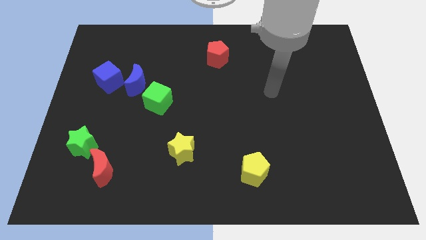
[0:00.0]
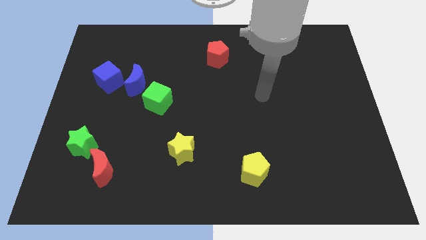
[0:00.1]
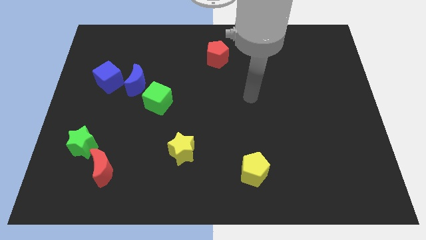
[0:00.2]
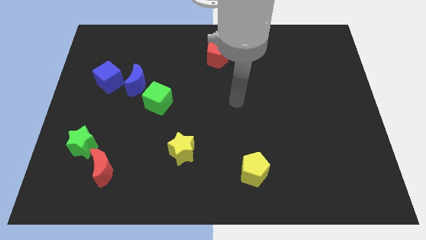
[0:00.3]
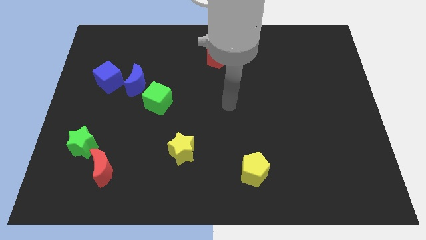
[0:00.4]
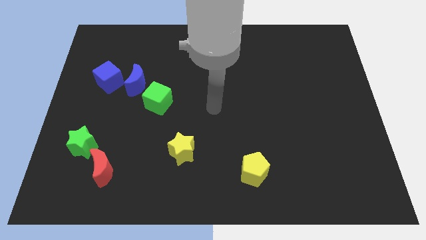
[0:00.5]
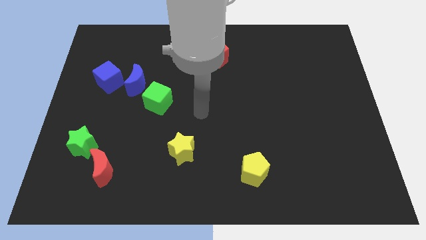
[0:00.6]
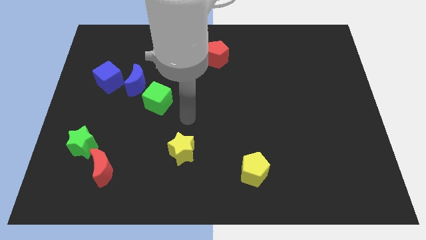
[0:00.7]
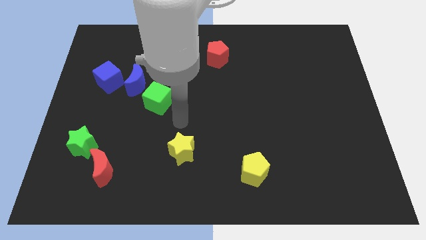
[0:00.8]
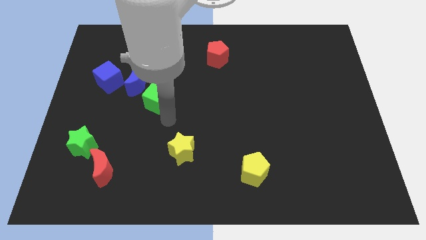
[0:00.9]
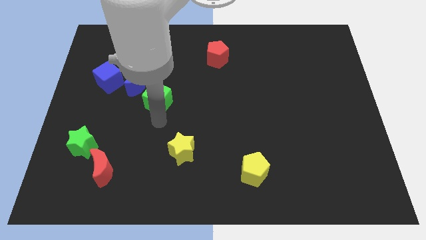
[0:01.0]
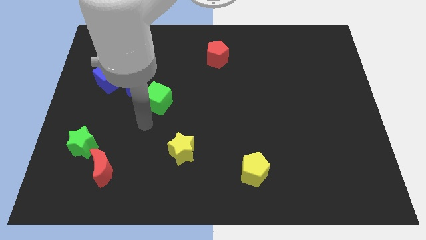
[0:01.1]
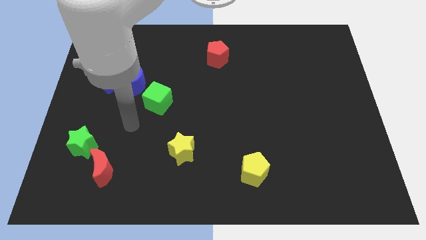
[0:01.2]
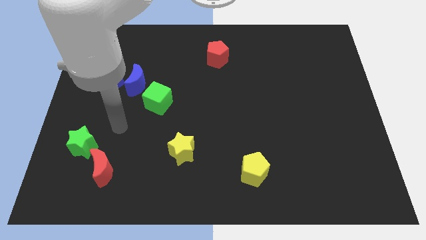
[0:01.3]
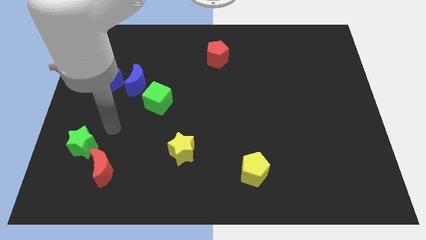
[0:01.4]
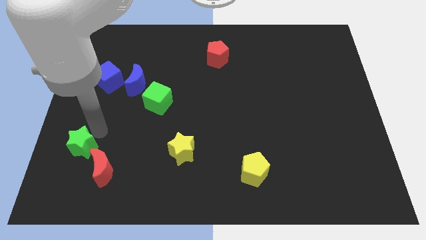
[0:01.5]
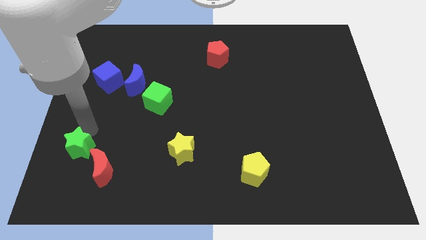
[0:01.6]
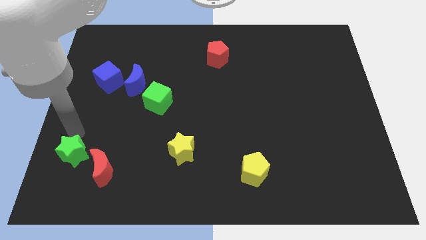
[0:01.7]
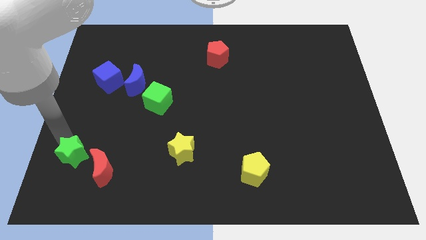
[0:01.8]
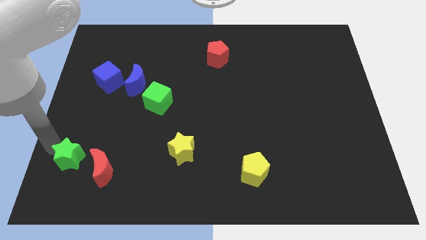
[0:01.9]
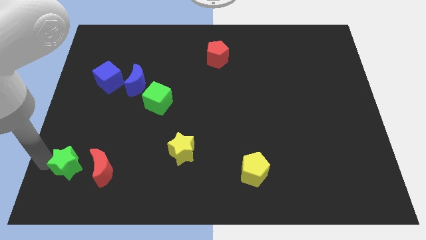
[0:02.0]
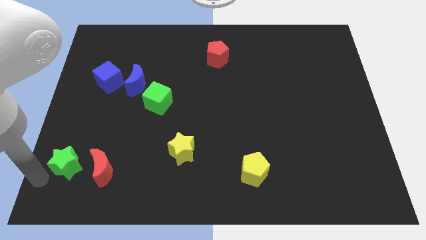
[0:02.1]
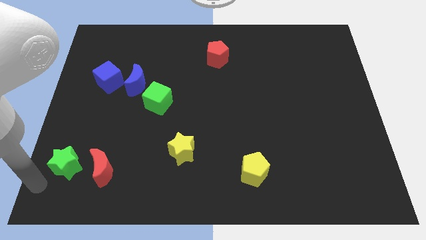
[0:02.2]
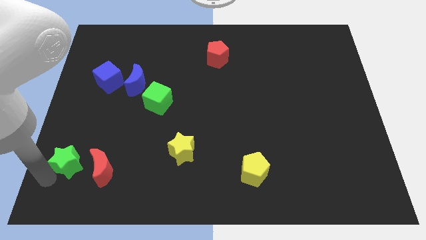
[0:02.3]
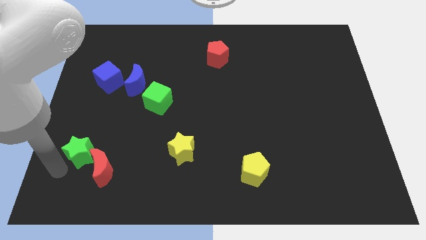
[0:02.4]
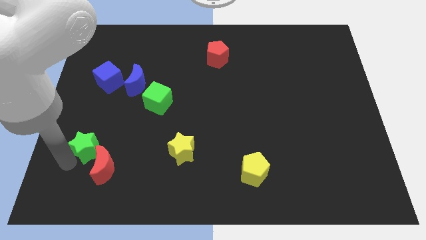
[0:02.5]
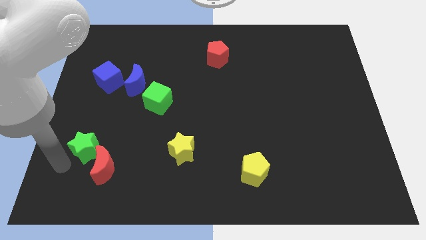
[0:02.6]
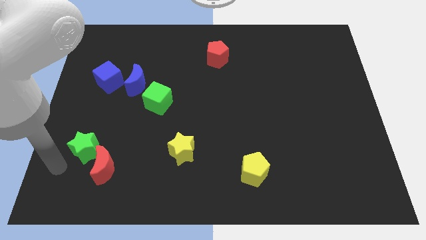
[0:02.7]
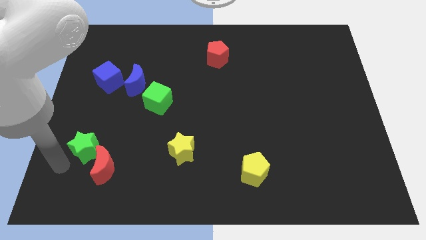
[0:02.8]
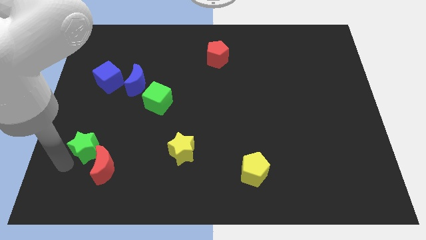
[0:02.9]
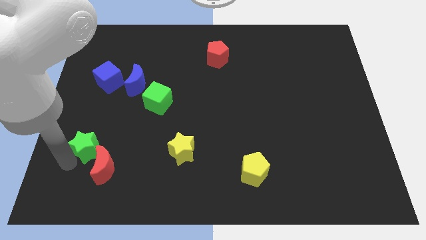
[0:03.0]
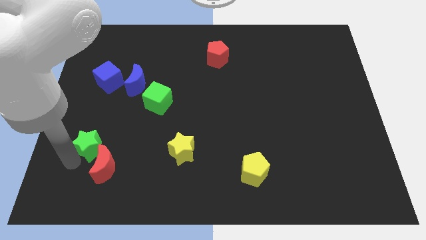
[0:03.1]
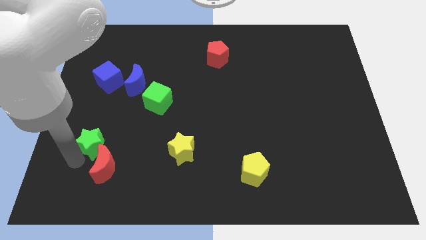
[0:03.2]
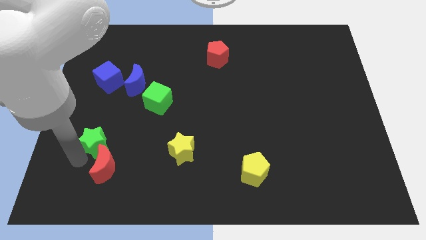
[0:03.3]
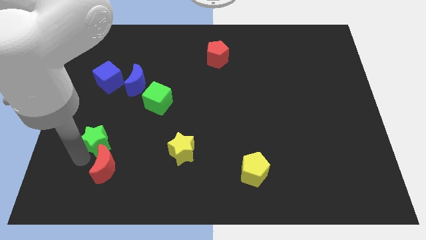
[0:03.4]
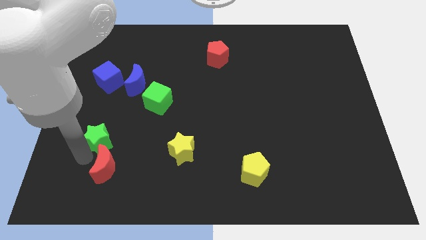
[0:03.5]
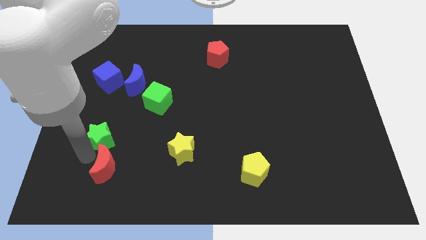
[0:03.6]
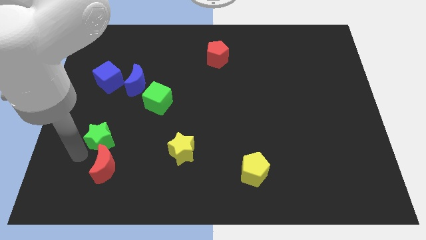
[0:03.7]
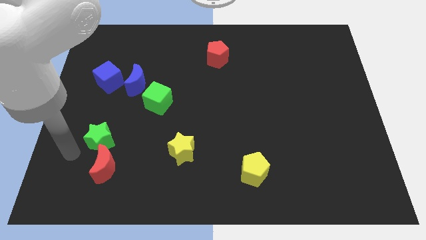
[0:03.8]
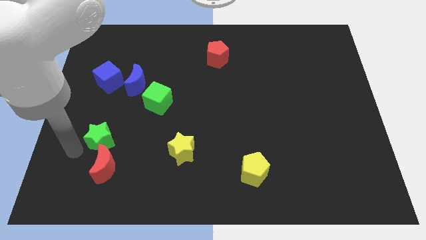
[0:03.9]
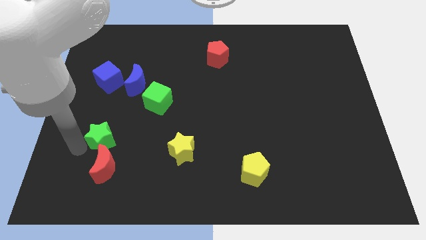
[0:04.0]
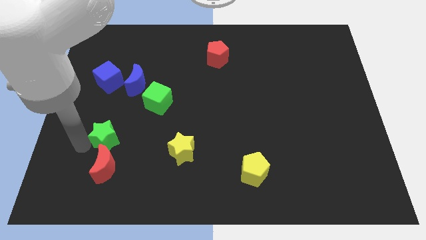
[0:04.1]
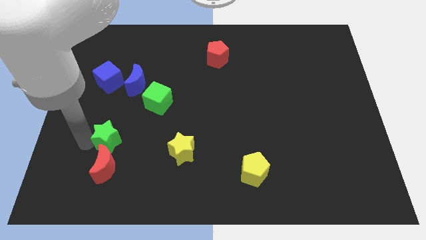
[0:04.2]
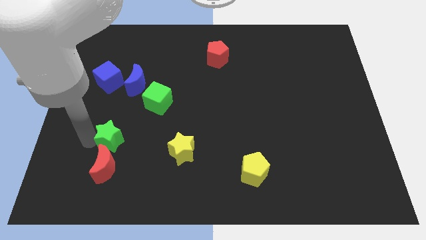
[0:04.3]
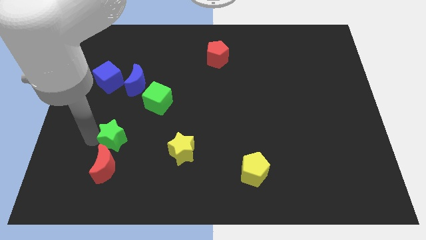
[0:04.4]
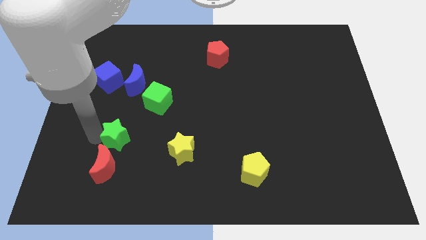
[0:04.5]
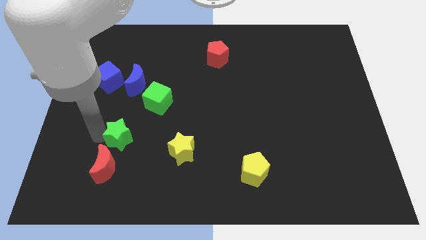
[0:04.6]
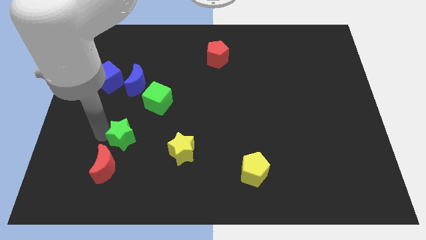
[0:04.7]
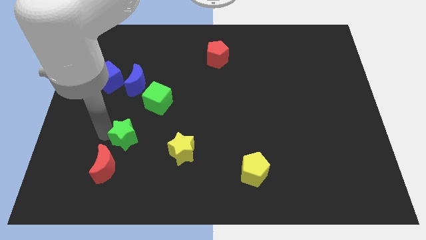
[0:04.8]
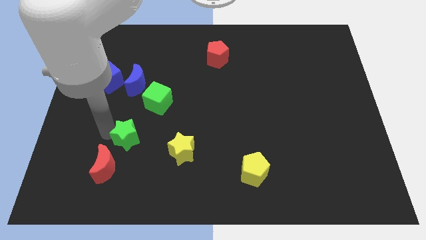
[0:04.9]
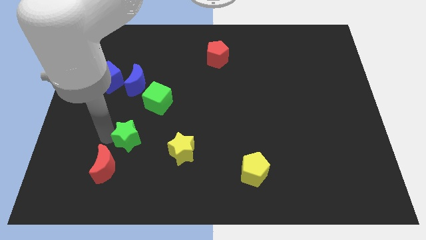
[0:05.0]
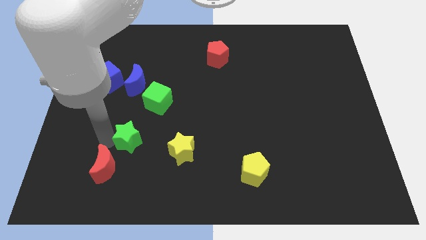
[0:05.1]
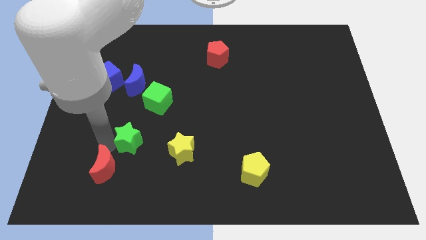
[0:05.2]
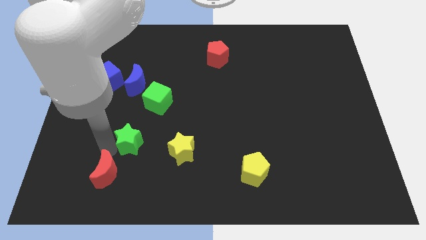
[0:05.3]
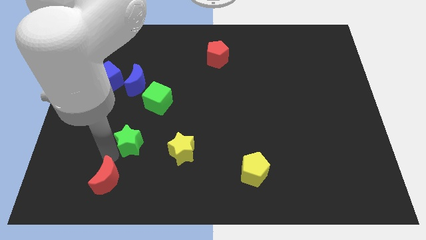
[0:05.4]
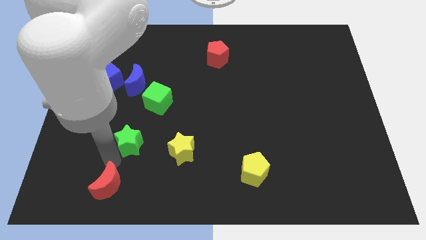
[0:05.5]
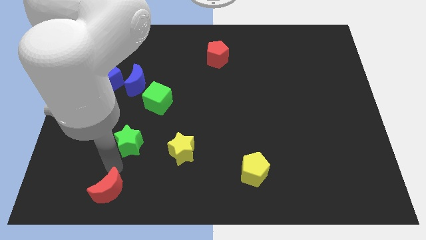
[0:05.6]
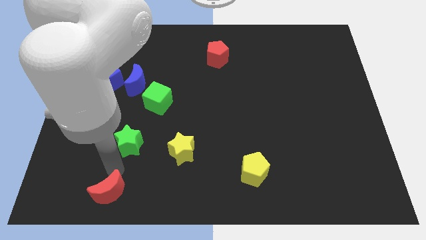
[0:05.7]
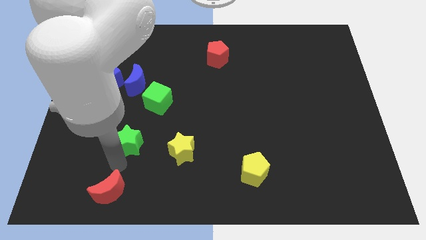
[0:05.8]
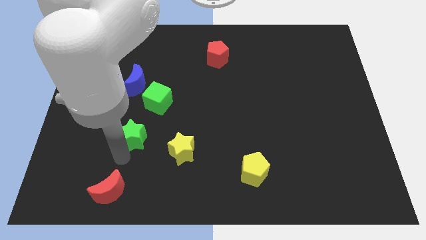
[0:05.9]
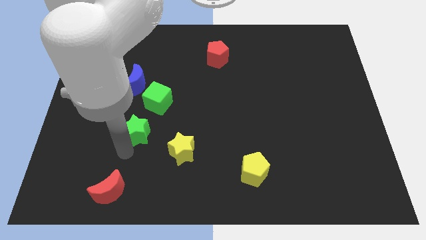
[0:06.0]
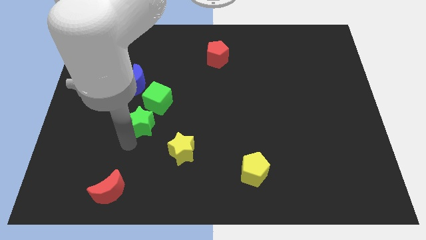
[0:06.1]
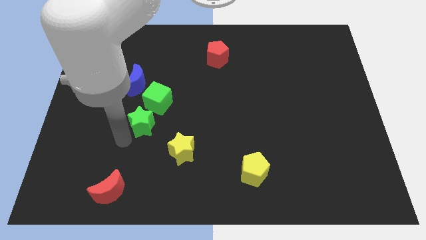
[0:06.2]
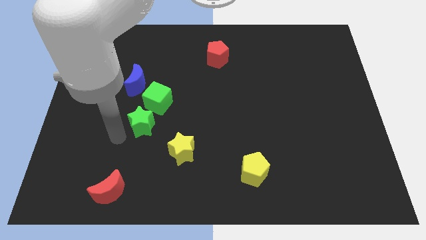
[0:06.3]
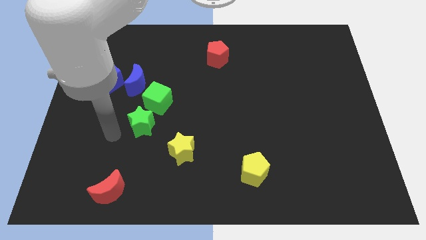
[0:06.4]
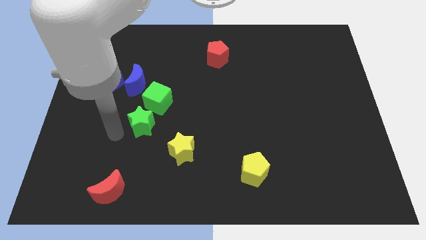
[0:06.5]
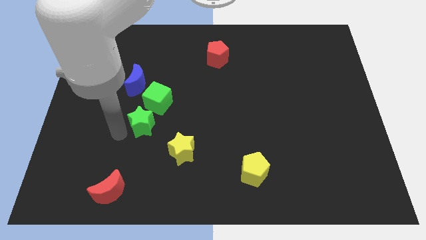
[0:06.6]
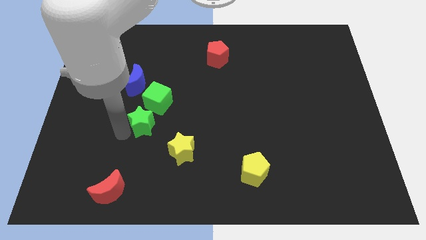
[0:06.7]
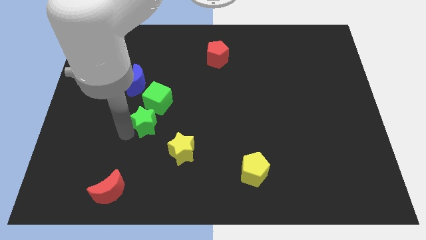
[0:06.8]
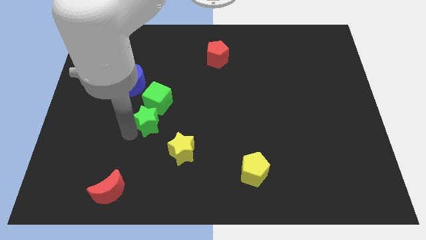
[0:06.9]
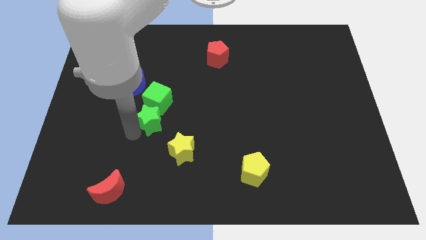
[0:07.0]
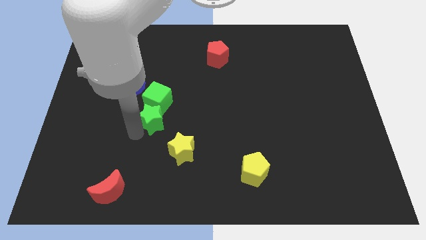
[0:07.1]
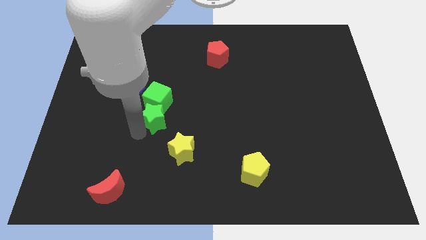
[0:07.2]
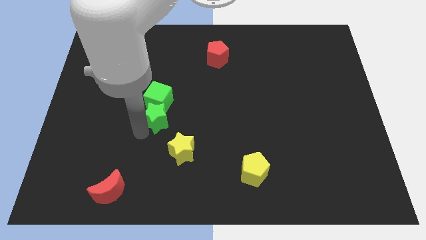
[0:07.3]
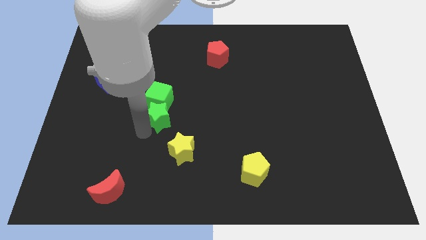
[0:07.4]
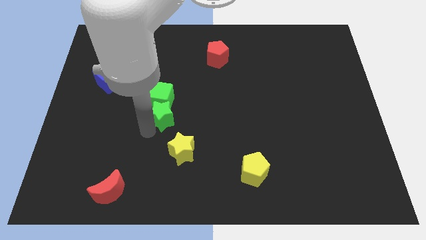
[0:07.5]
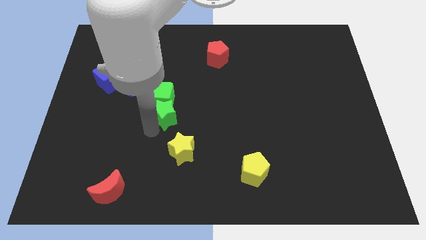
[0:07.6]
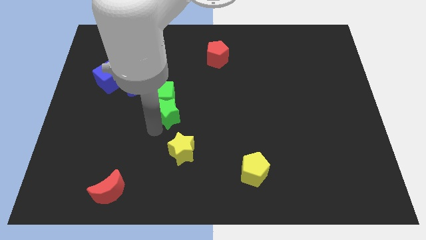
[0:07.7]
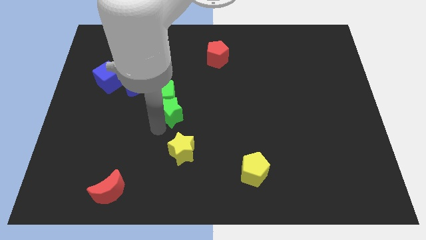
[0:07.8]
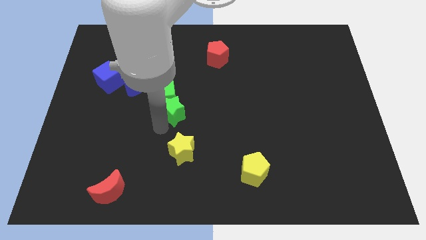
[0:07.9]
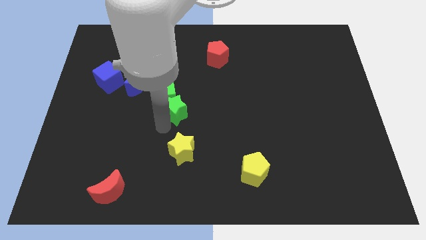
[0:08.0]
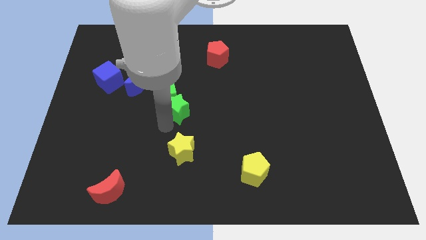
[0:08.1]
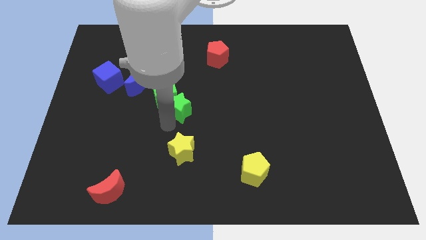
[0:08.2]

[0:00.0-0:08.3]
slide the green star to the right side of the green cube
